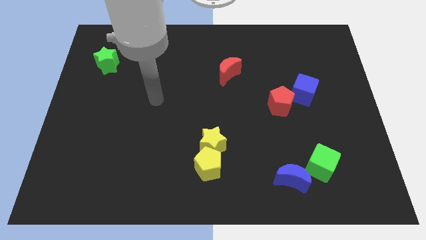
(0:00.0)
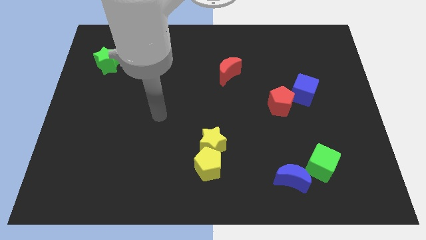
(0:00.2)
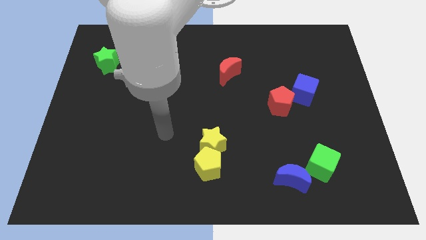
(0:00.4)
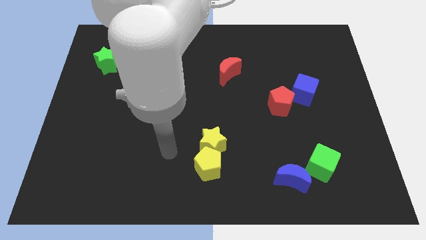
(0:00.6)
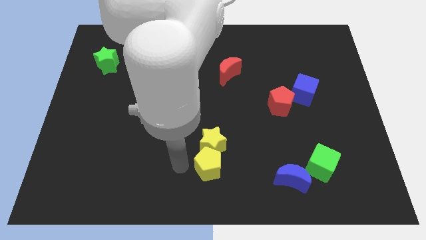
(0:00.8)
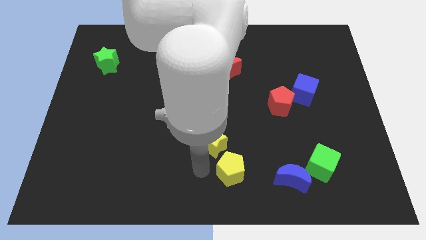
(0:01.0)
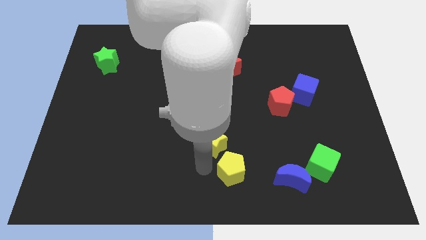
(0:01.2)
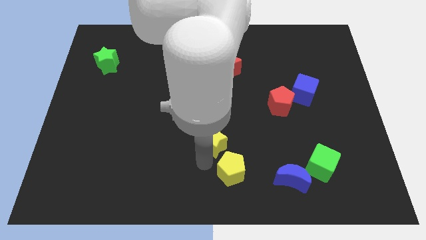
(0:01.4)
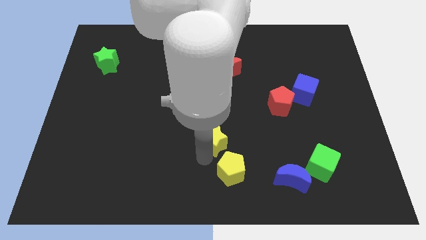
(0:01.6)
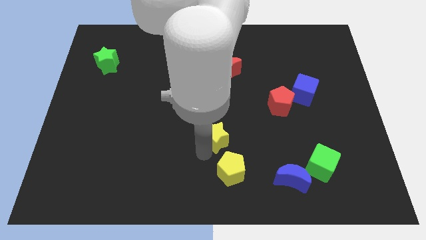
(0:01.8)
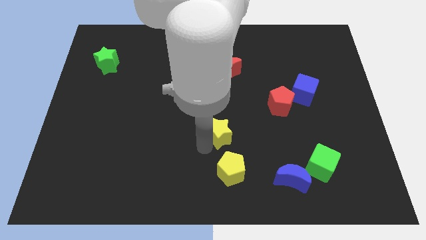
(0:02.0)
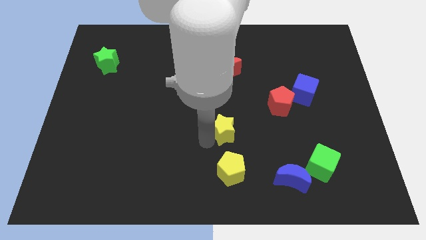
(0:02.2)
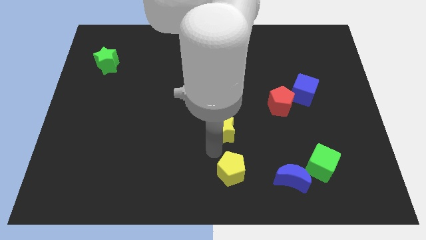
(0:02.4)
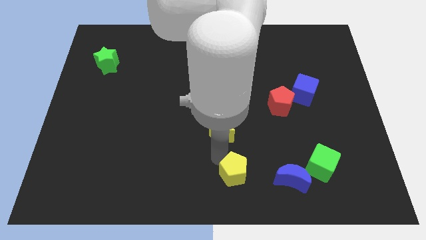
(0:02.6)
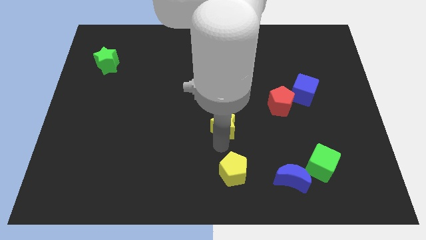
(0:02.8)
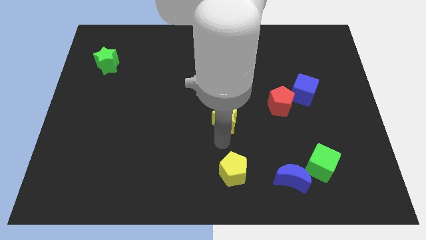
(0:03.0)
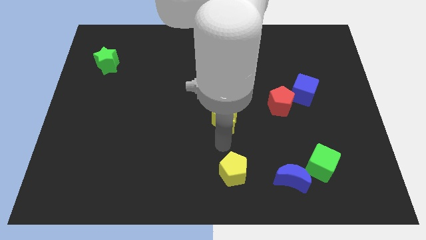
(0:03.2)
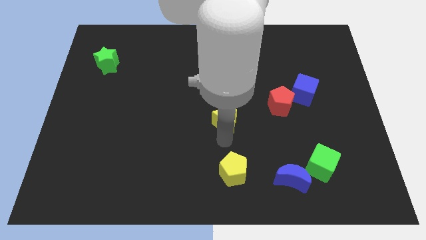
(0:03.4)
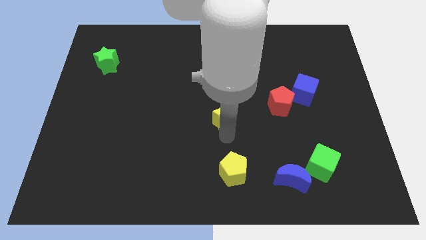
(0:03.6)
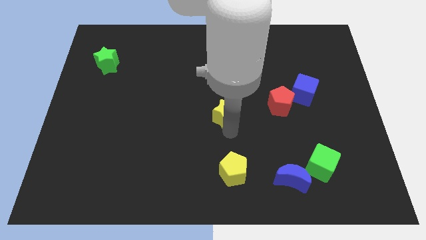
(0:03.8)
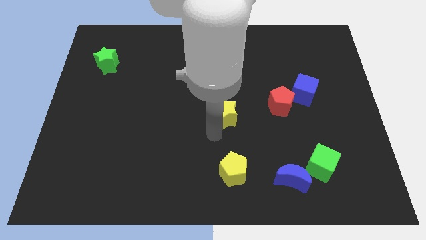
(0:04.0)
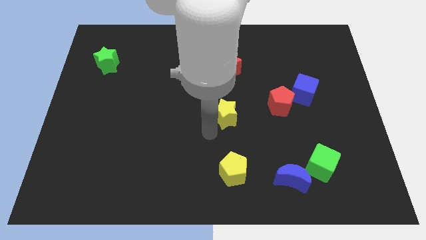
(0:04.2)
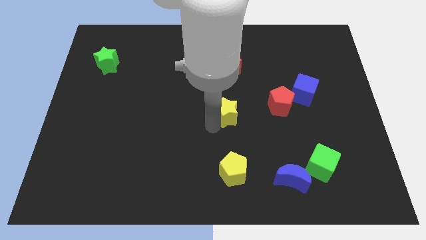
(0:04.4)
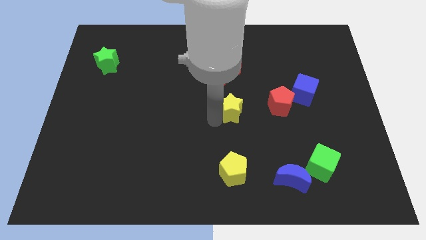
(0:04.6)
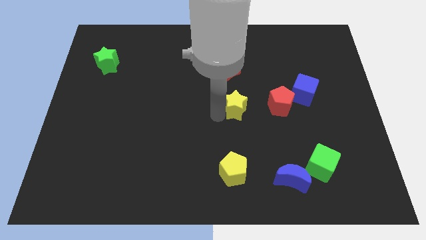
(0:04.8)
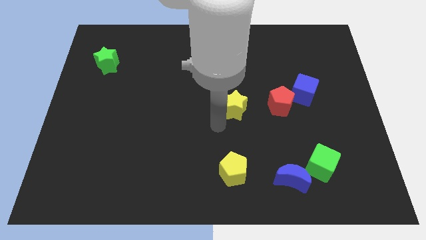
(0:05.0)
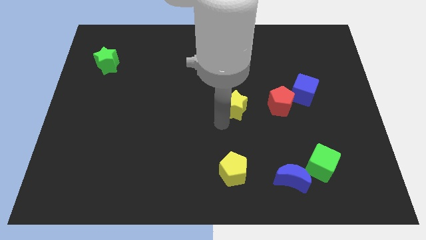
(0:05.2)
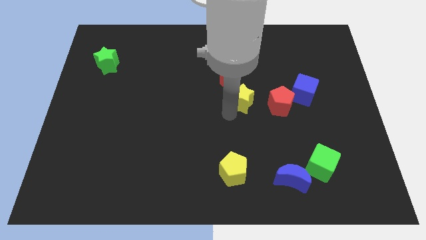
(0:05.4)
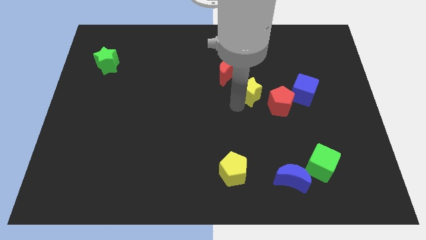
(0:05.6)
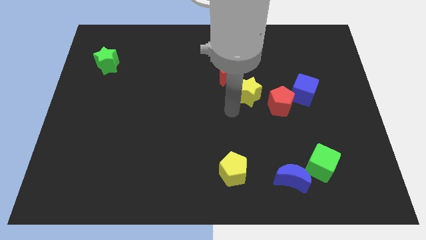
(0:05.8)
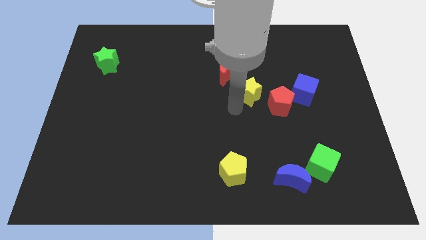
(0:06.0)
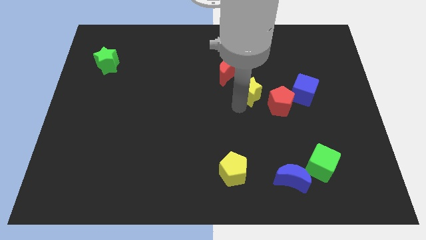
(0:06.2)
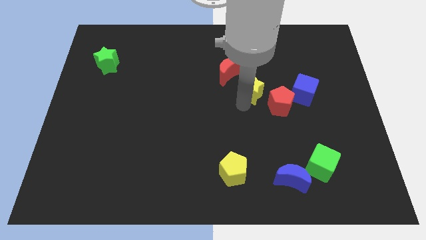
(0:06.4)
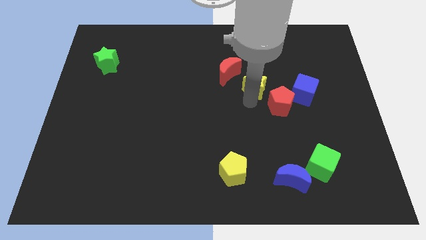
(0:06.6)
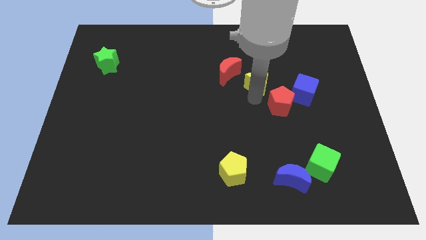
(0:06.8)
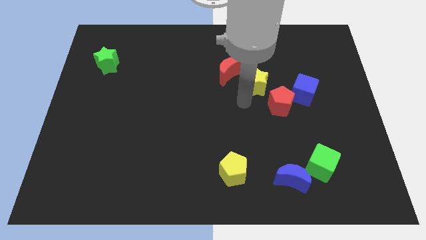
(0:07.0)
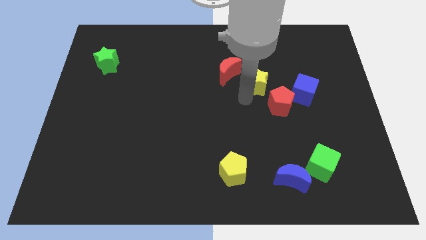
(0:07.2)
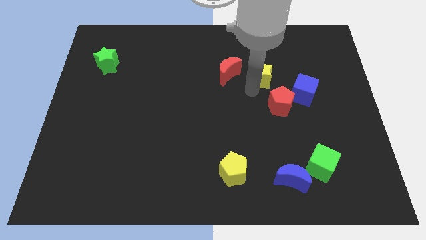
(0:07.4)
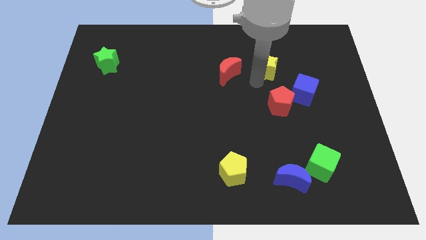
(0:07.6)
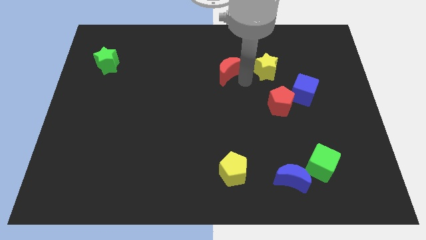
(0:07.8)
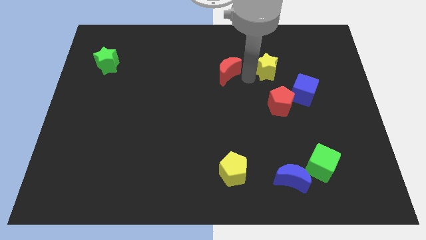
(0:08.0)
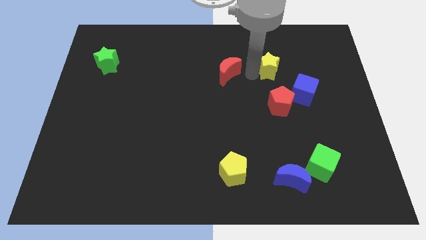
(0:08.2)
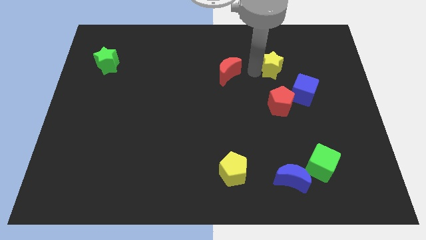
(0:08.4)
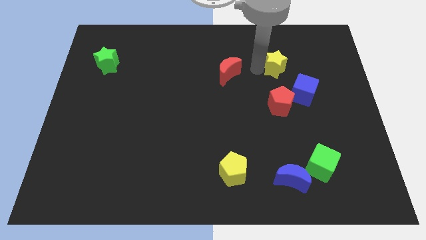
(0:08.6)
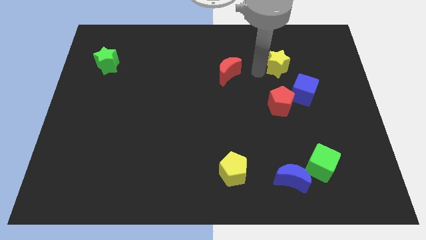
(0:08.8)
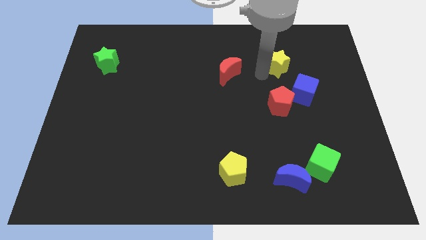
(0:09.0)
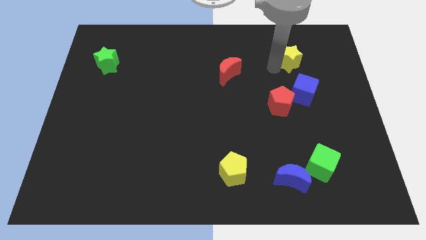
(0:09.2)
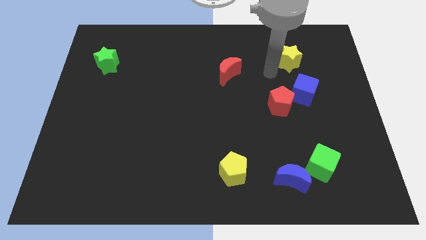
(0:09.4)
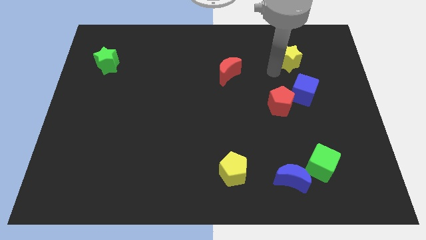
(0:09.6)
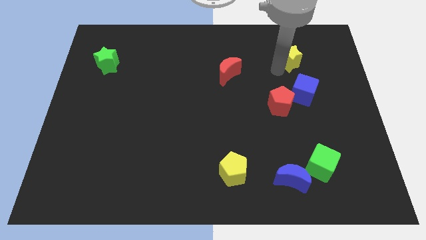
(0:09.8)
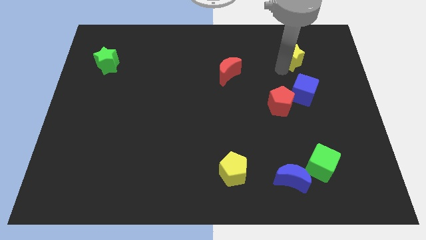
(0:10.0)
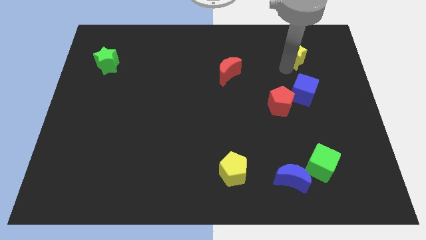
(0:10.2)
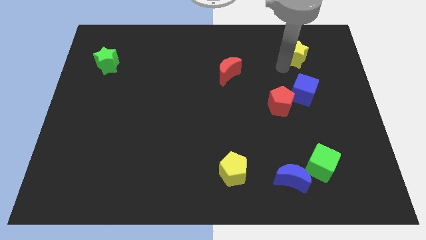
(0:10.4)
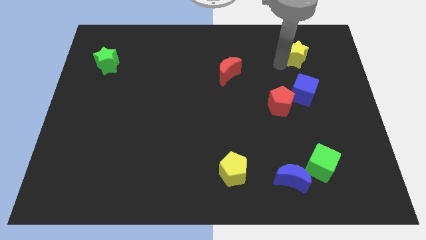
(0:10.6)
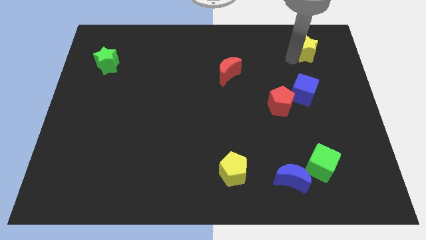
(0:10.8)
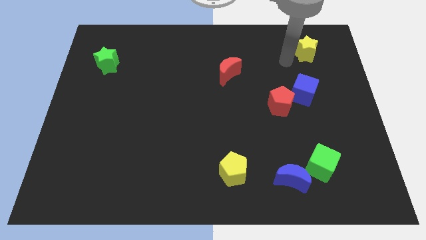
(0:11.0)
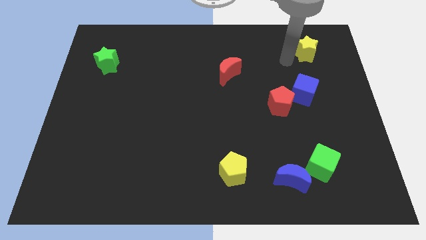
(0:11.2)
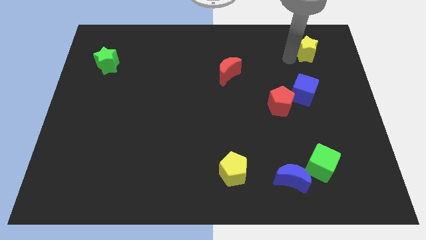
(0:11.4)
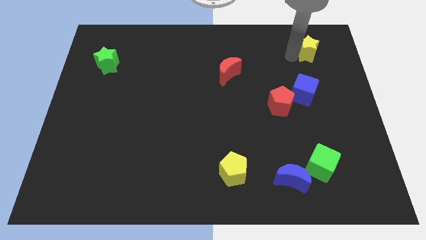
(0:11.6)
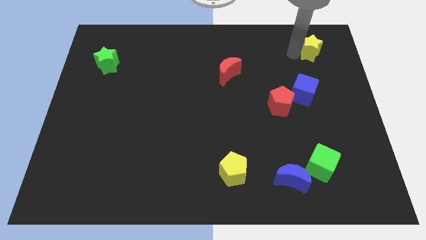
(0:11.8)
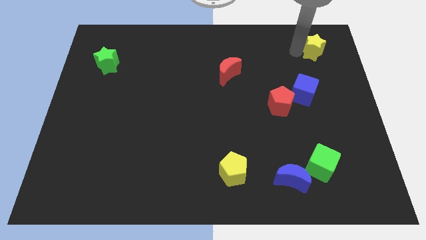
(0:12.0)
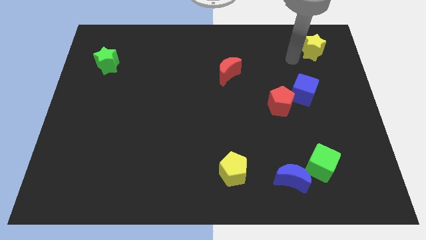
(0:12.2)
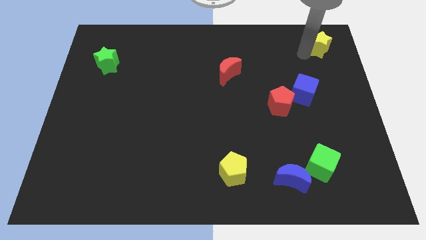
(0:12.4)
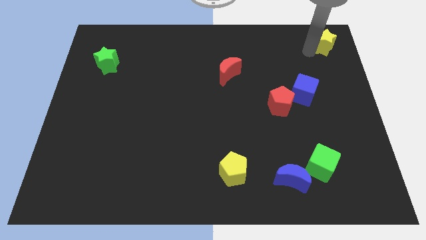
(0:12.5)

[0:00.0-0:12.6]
slide the yellow star to the top right corner
